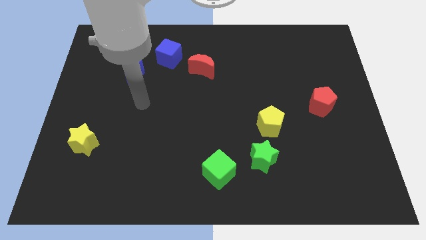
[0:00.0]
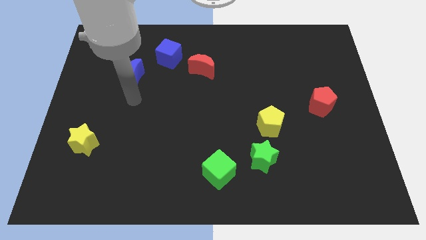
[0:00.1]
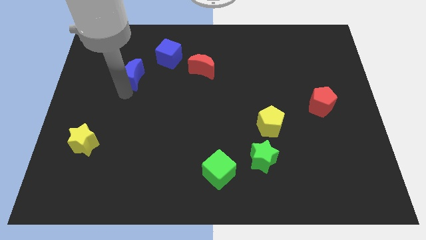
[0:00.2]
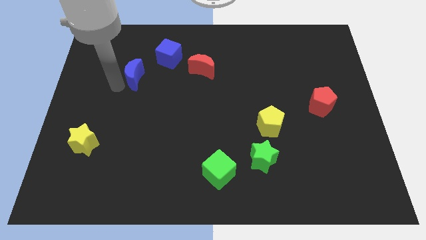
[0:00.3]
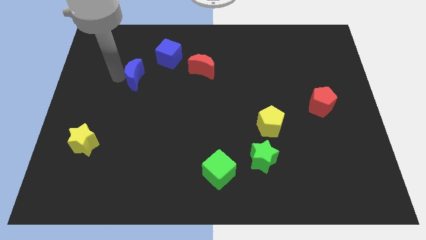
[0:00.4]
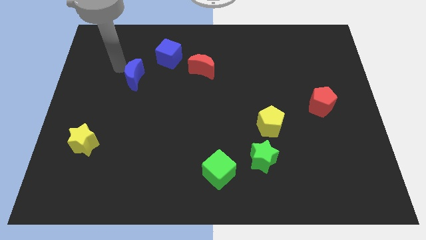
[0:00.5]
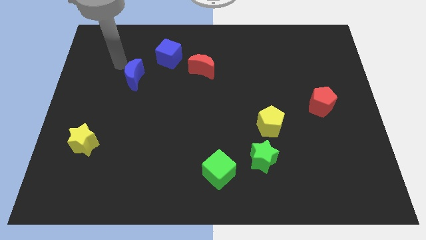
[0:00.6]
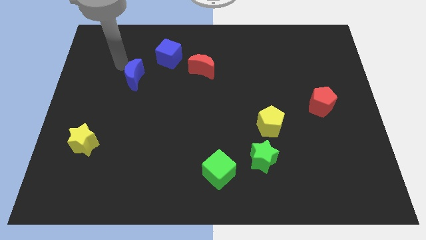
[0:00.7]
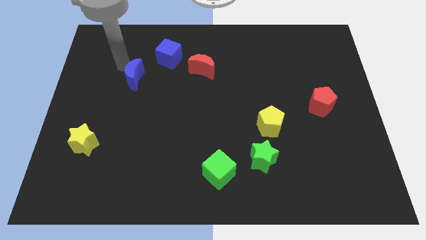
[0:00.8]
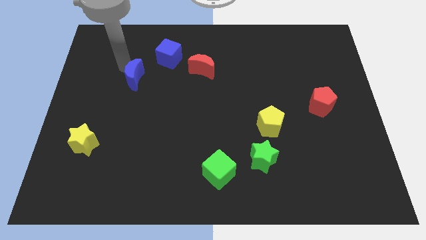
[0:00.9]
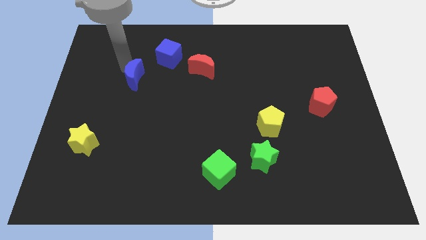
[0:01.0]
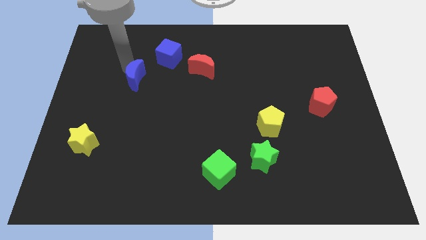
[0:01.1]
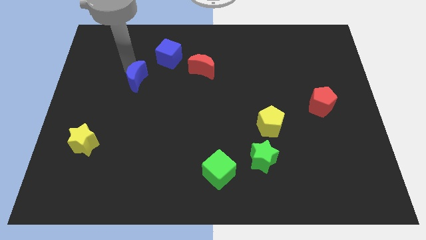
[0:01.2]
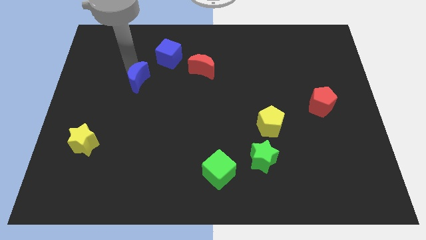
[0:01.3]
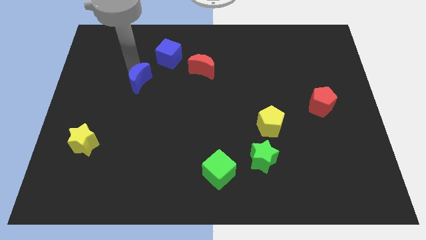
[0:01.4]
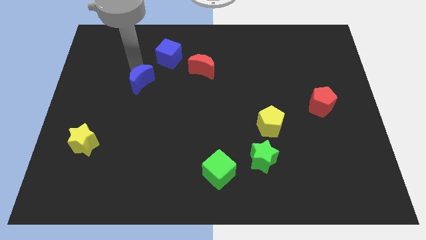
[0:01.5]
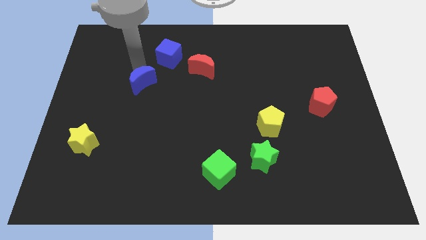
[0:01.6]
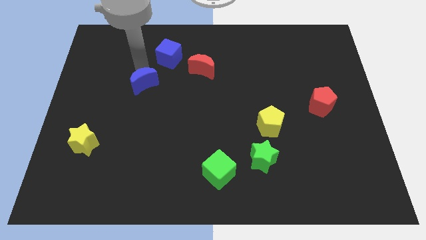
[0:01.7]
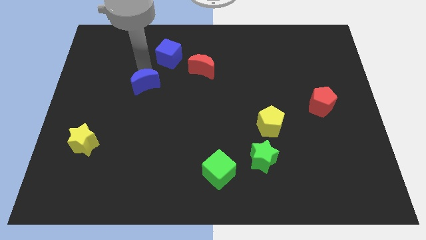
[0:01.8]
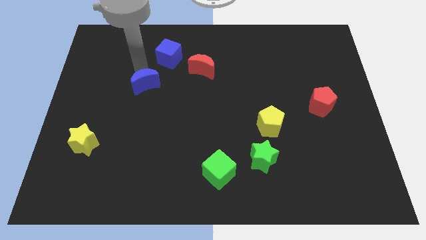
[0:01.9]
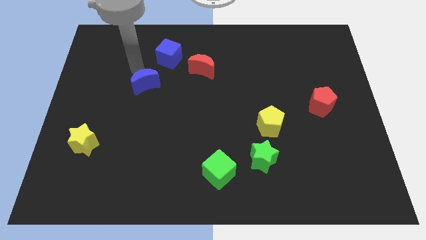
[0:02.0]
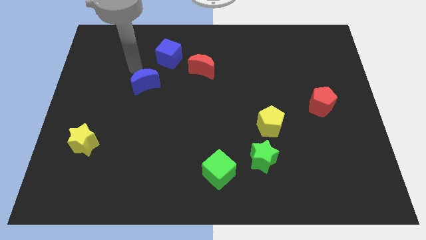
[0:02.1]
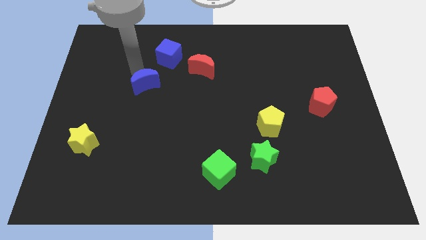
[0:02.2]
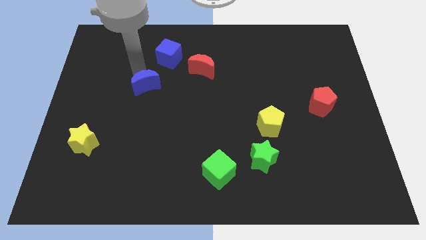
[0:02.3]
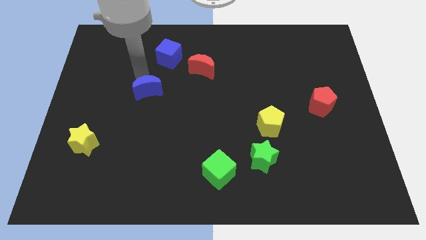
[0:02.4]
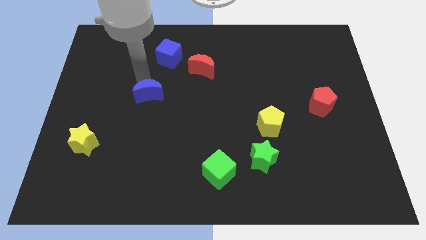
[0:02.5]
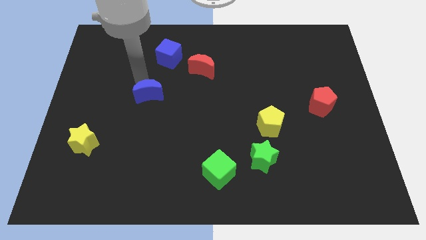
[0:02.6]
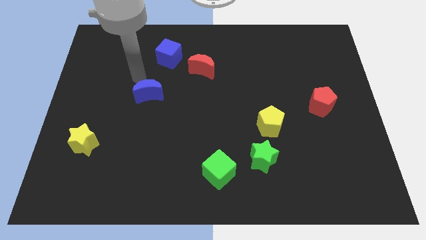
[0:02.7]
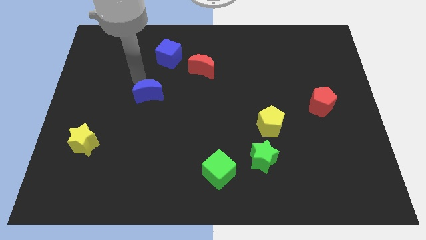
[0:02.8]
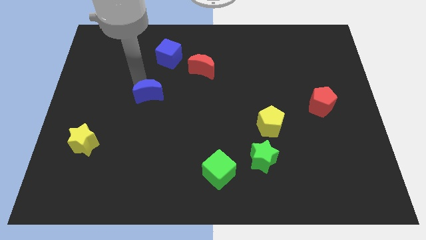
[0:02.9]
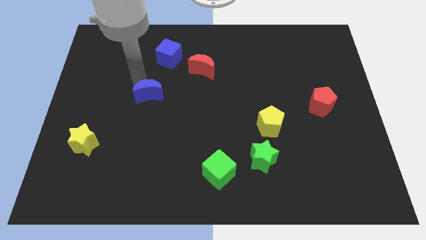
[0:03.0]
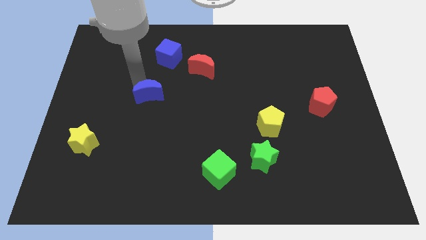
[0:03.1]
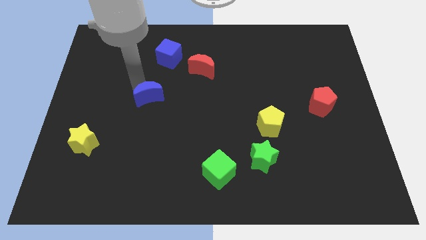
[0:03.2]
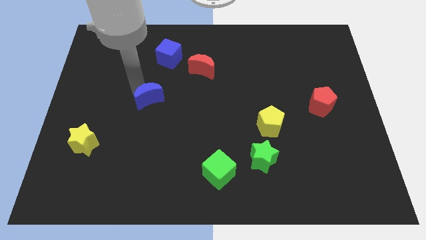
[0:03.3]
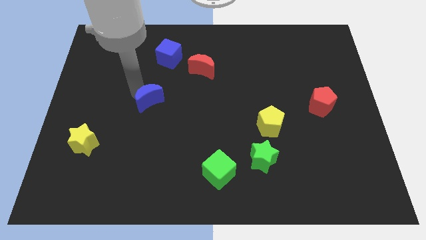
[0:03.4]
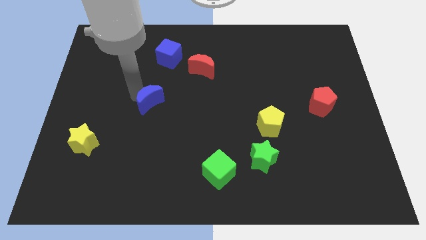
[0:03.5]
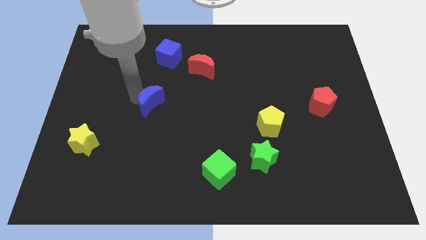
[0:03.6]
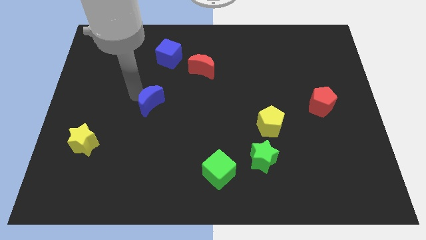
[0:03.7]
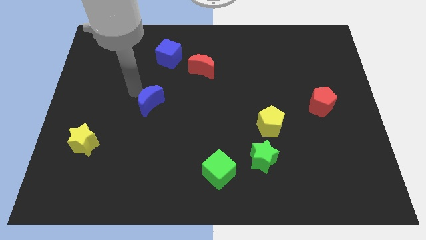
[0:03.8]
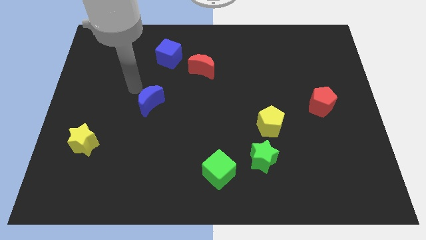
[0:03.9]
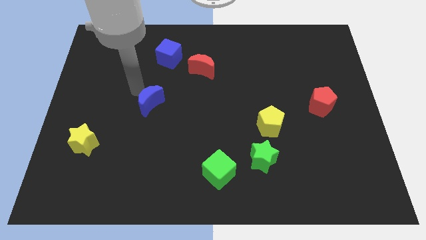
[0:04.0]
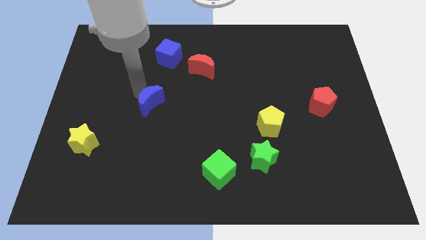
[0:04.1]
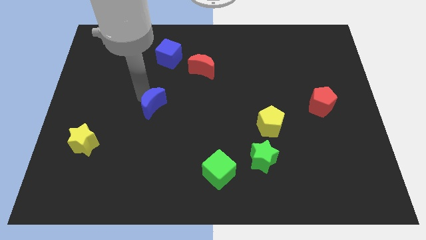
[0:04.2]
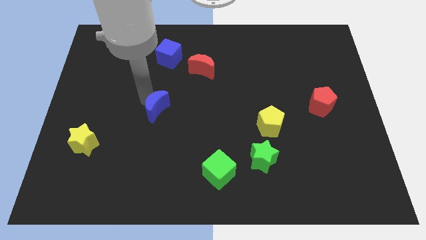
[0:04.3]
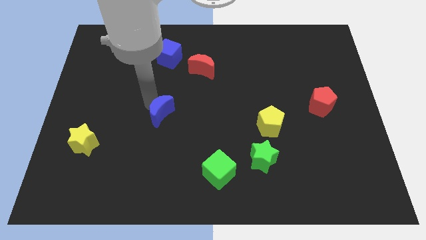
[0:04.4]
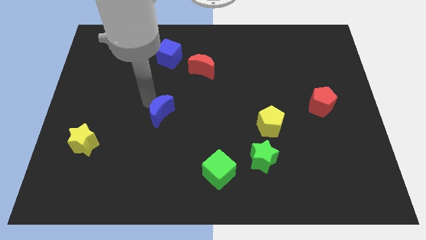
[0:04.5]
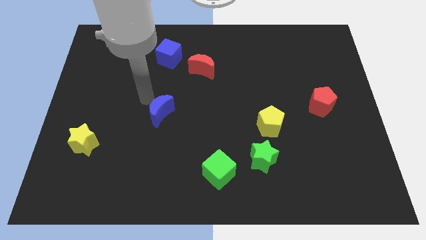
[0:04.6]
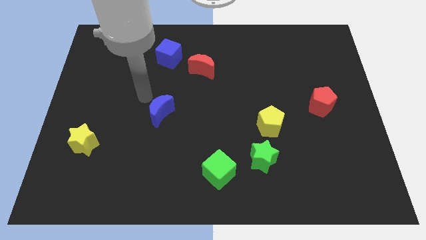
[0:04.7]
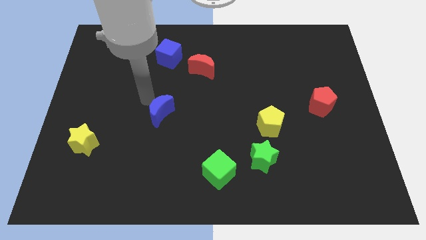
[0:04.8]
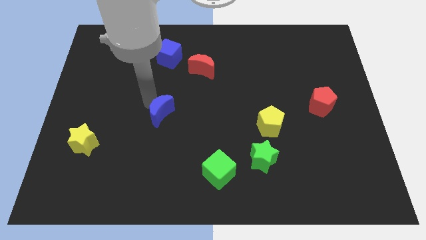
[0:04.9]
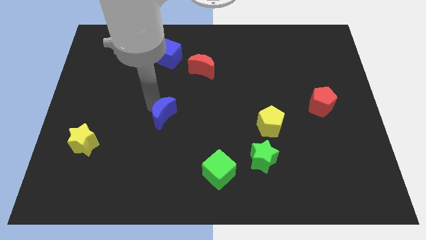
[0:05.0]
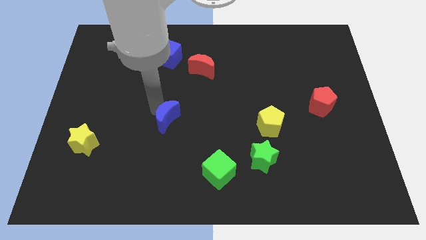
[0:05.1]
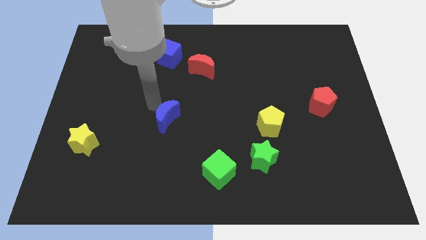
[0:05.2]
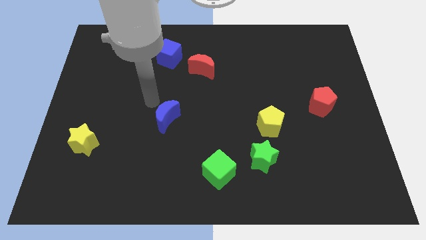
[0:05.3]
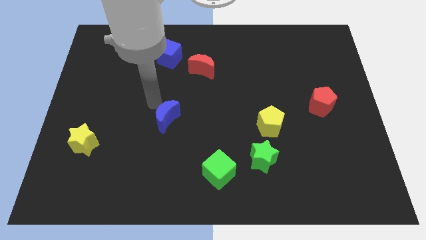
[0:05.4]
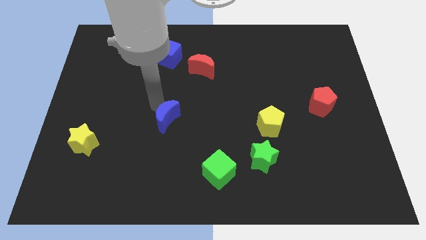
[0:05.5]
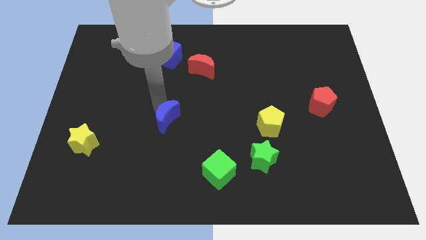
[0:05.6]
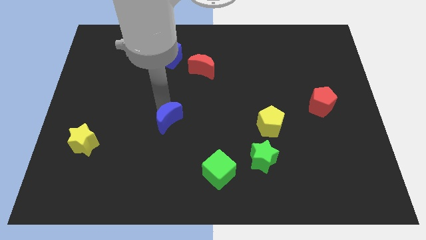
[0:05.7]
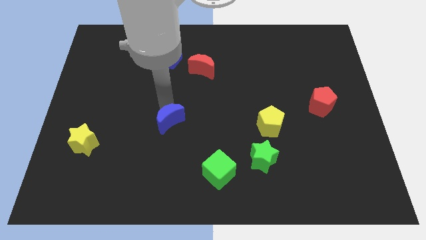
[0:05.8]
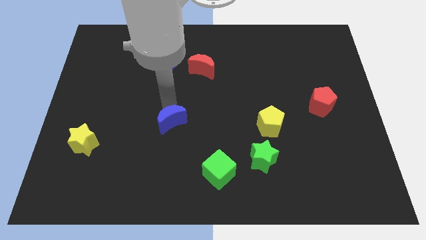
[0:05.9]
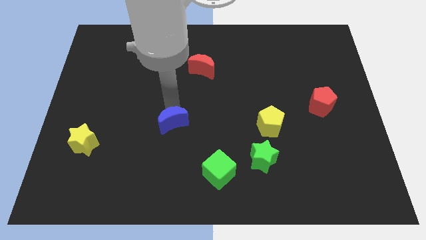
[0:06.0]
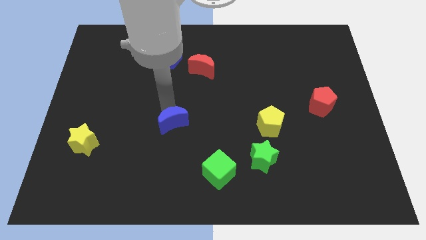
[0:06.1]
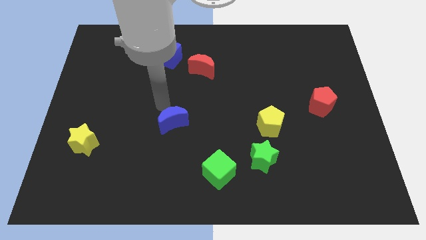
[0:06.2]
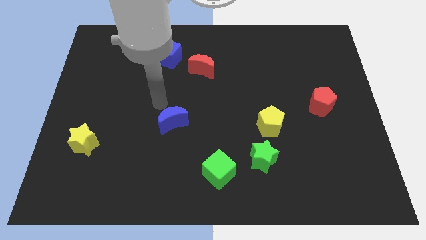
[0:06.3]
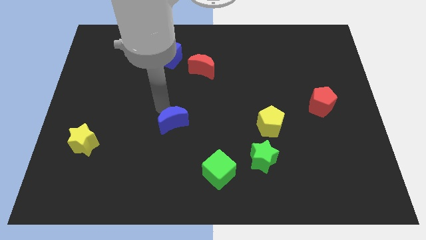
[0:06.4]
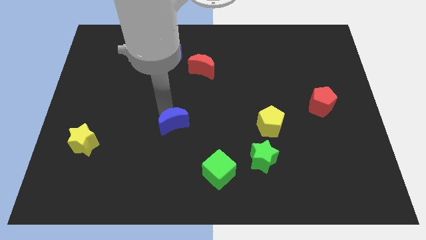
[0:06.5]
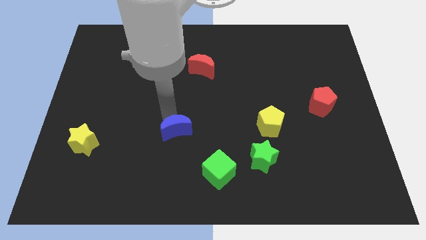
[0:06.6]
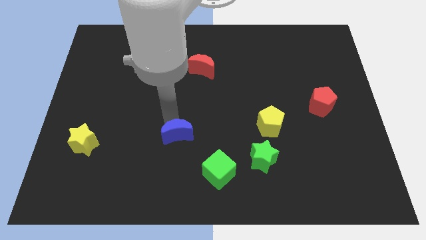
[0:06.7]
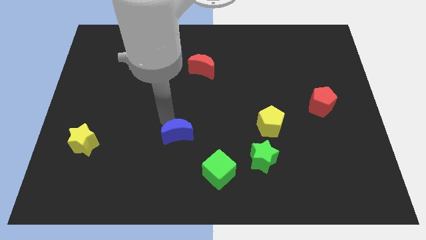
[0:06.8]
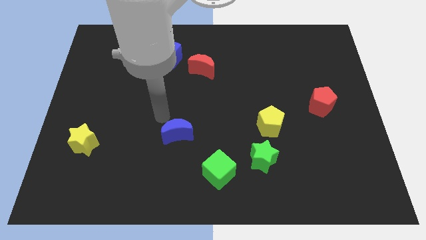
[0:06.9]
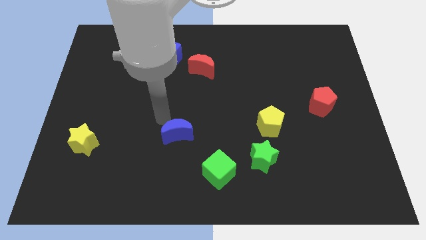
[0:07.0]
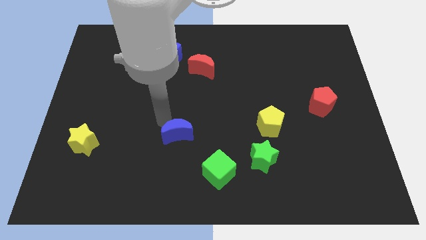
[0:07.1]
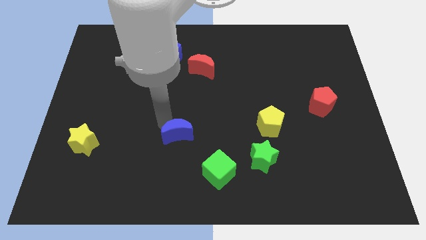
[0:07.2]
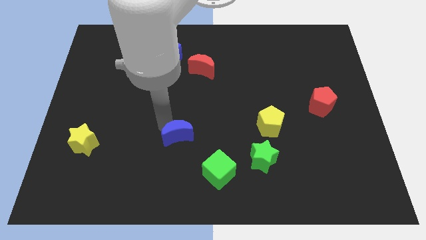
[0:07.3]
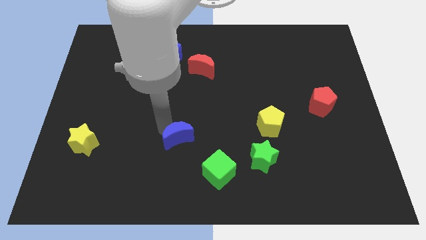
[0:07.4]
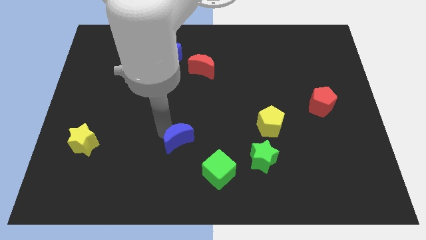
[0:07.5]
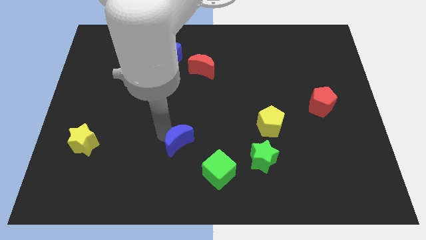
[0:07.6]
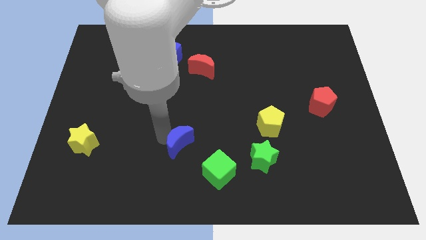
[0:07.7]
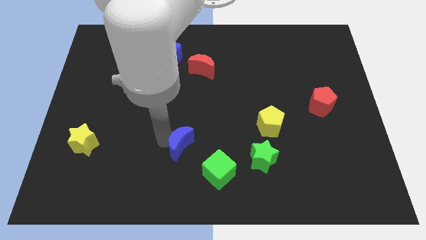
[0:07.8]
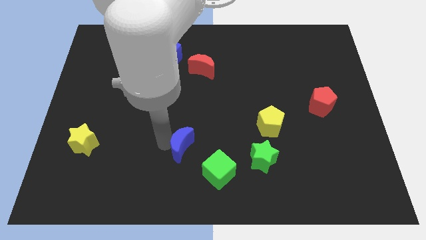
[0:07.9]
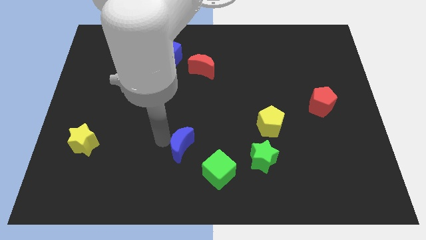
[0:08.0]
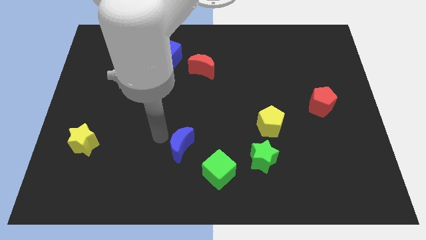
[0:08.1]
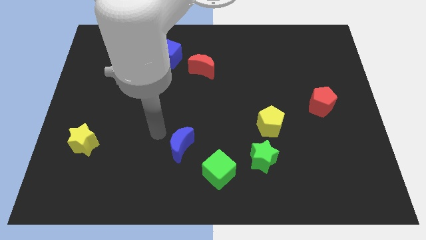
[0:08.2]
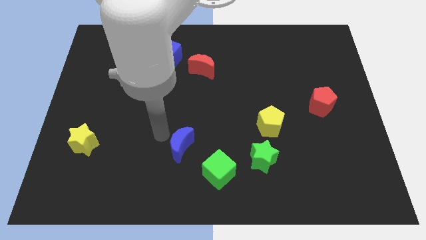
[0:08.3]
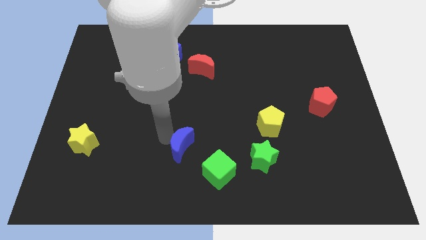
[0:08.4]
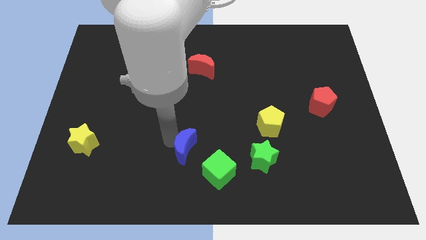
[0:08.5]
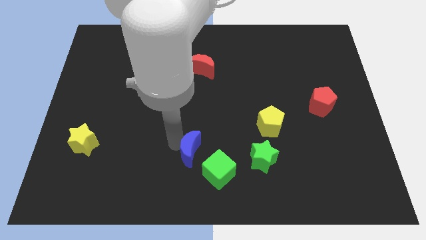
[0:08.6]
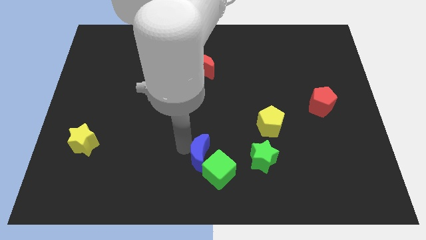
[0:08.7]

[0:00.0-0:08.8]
move the blue moon next to the green cube
